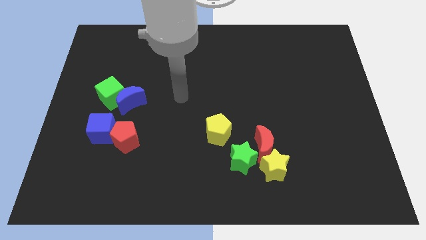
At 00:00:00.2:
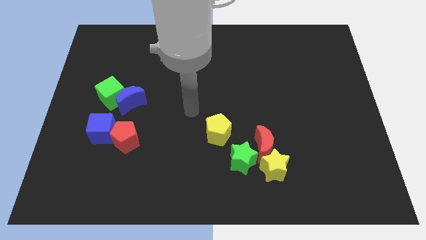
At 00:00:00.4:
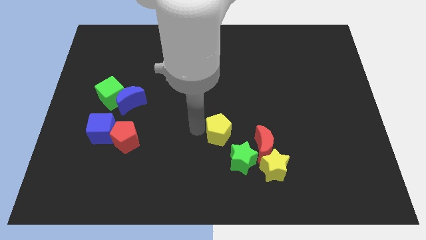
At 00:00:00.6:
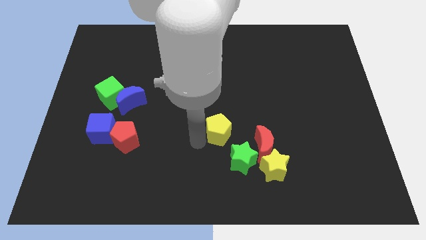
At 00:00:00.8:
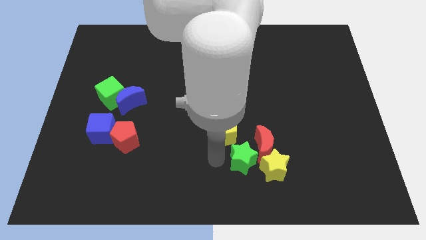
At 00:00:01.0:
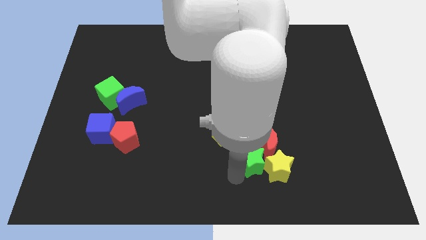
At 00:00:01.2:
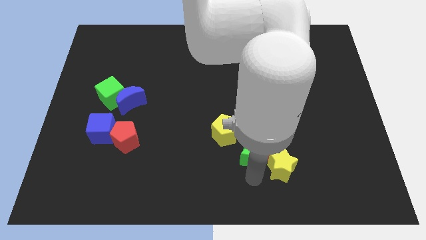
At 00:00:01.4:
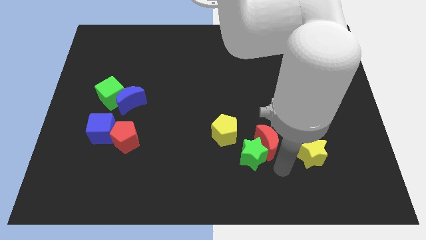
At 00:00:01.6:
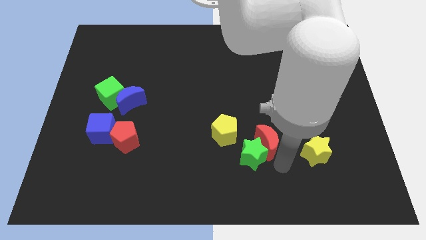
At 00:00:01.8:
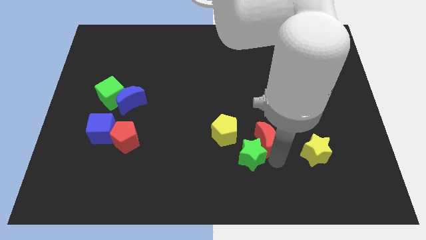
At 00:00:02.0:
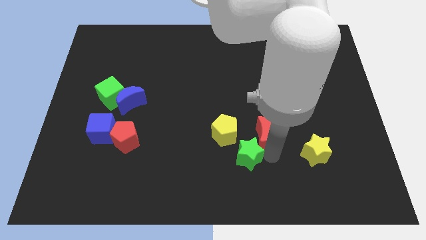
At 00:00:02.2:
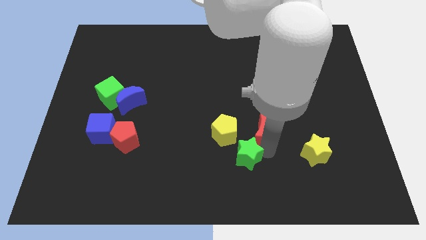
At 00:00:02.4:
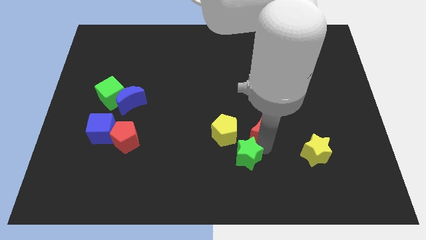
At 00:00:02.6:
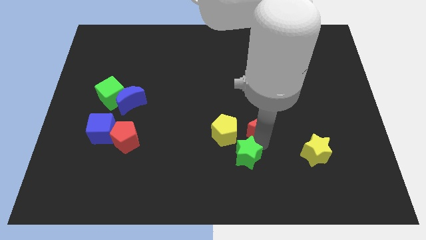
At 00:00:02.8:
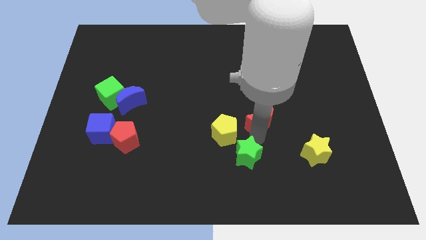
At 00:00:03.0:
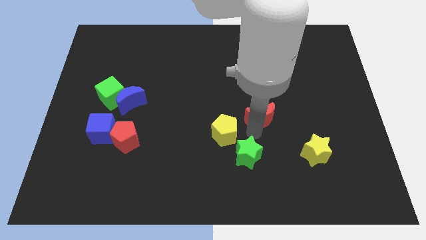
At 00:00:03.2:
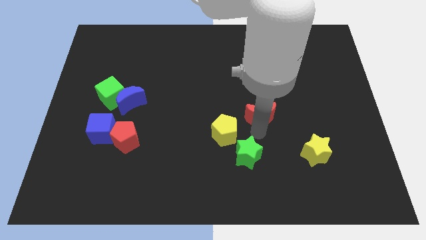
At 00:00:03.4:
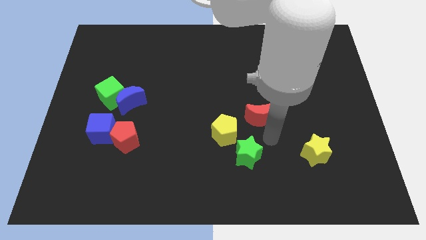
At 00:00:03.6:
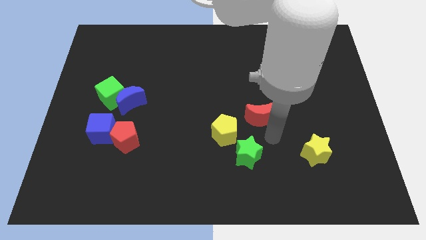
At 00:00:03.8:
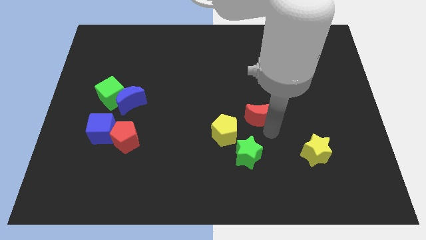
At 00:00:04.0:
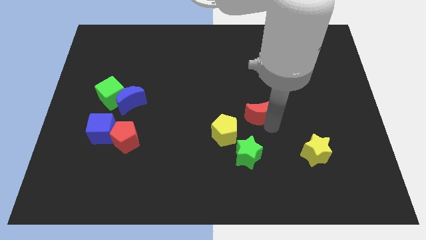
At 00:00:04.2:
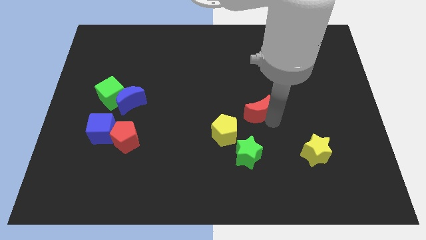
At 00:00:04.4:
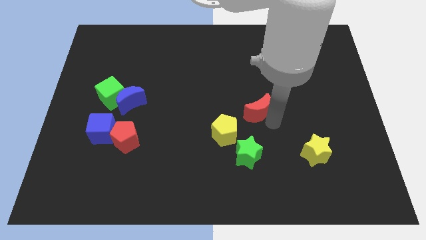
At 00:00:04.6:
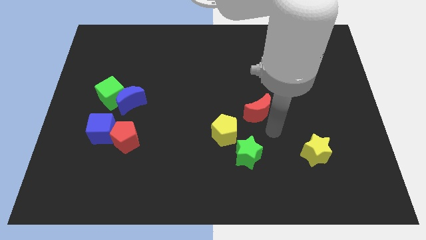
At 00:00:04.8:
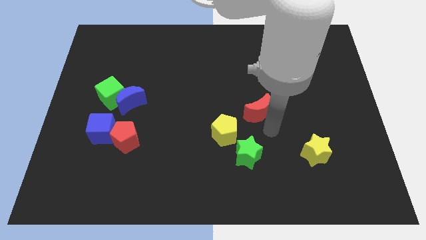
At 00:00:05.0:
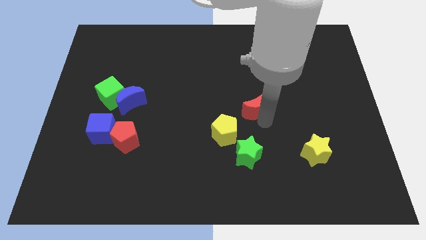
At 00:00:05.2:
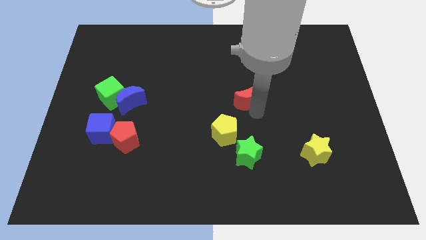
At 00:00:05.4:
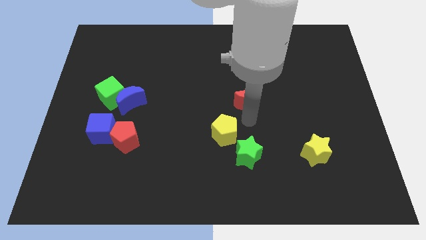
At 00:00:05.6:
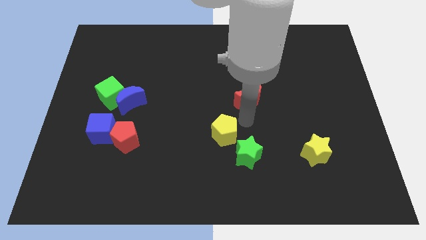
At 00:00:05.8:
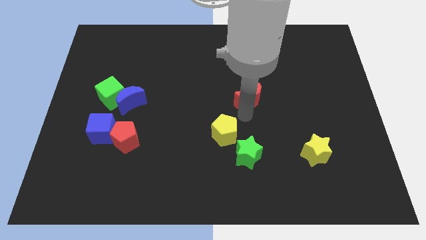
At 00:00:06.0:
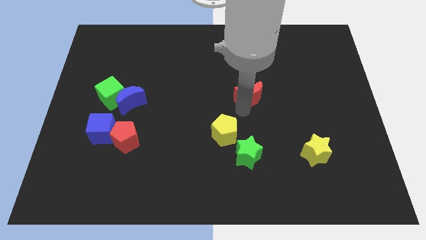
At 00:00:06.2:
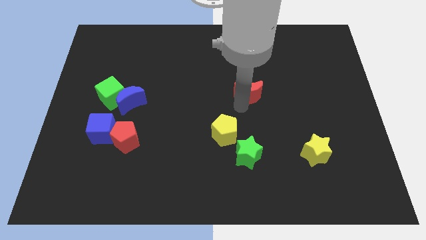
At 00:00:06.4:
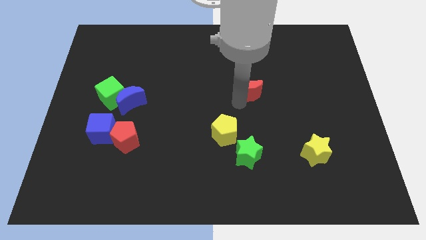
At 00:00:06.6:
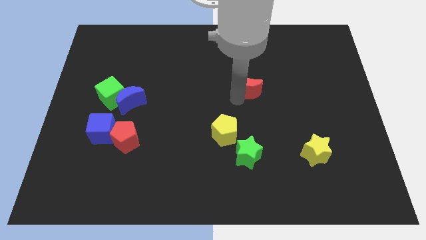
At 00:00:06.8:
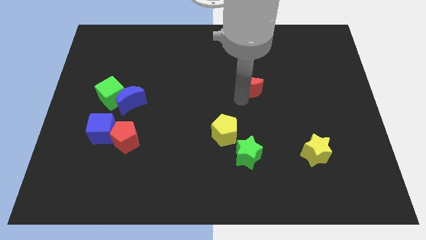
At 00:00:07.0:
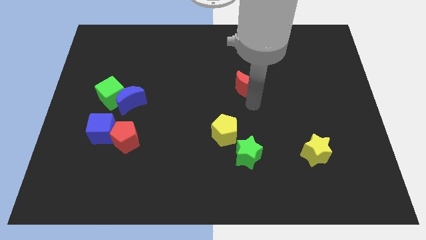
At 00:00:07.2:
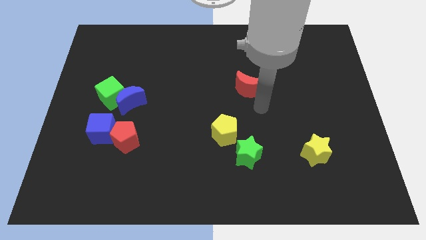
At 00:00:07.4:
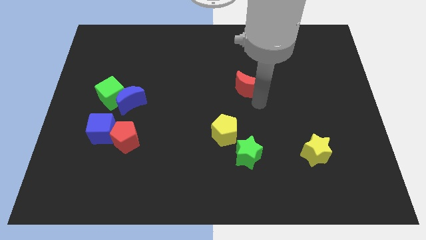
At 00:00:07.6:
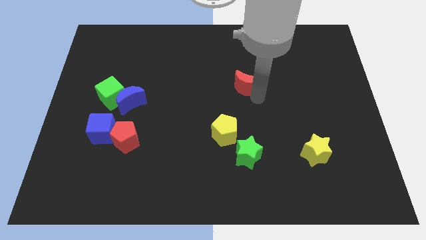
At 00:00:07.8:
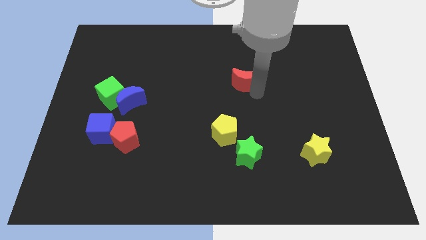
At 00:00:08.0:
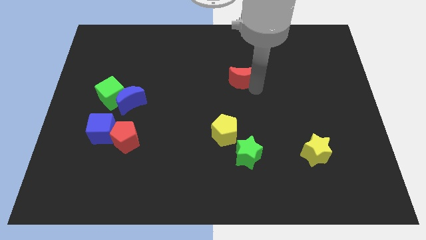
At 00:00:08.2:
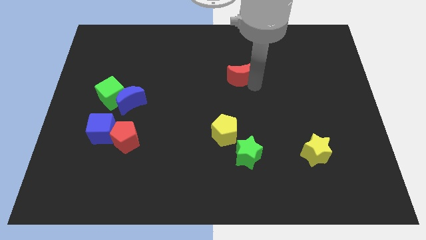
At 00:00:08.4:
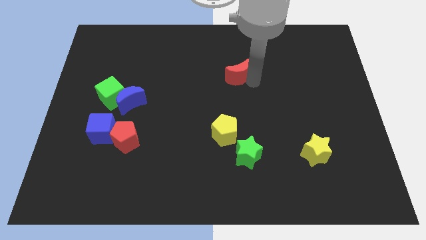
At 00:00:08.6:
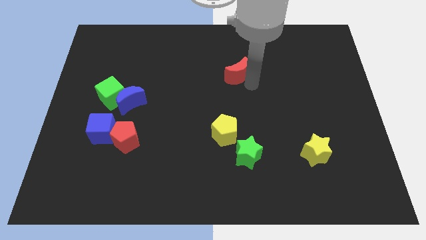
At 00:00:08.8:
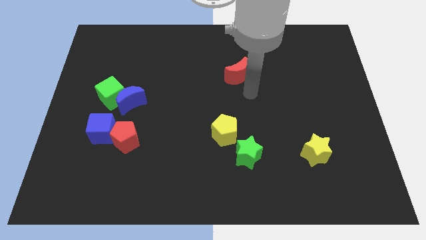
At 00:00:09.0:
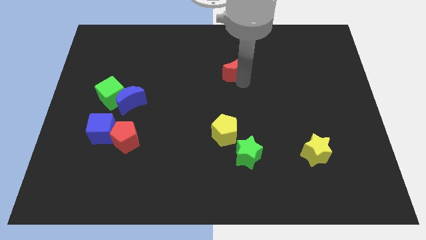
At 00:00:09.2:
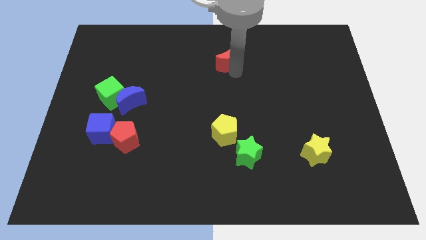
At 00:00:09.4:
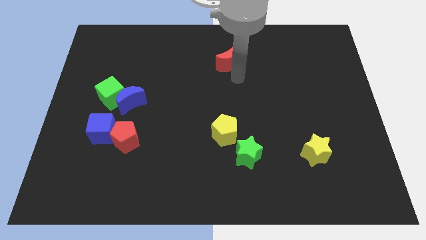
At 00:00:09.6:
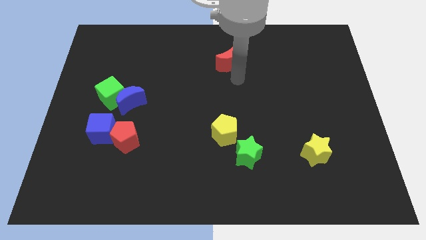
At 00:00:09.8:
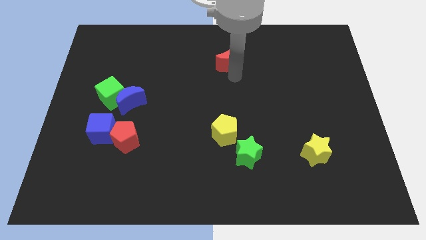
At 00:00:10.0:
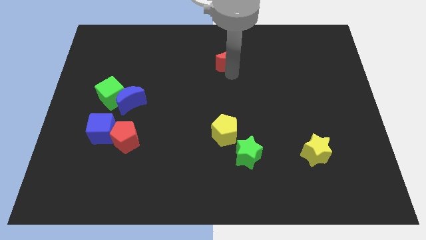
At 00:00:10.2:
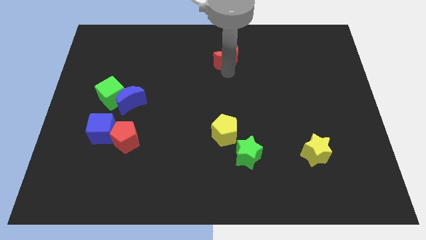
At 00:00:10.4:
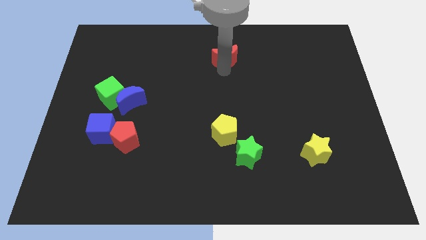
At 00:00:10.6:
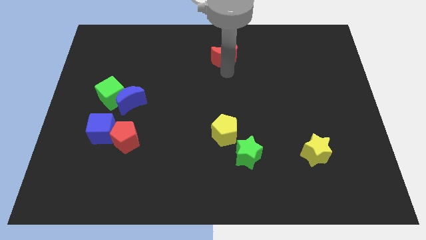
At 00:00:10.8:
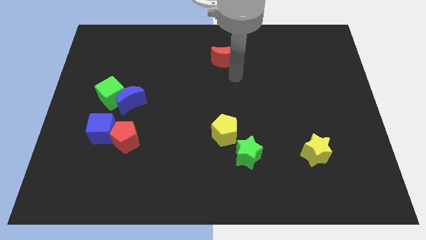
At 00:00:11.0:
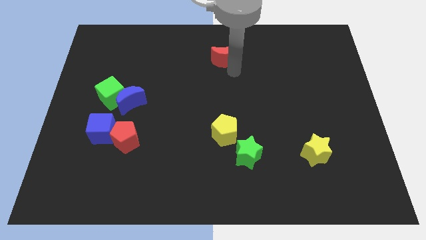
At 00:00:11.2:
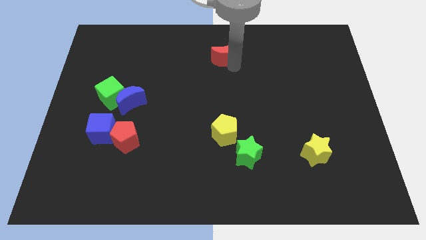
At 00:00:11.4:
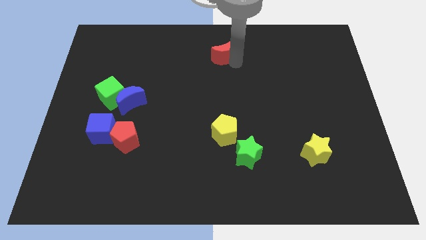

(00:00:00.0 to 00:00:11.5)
push the red moon to the top side

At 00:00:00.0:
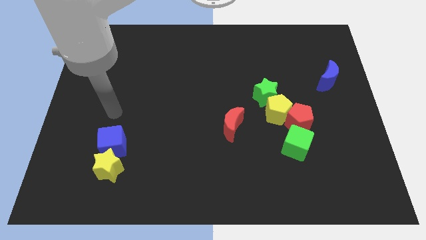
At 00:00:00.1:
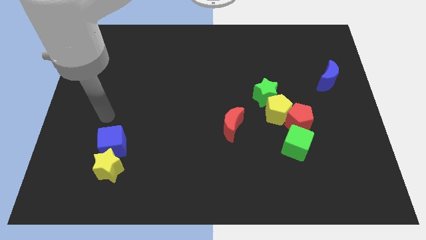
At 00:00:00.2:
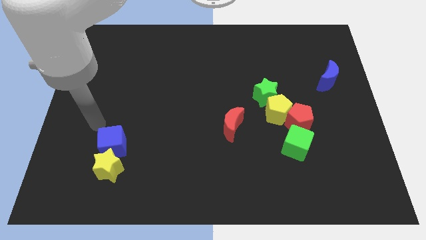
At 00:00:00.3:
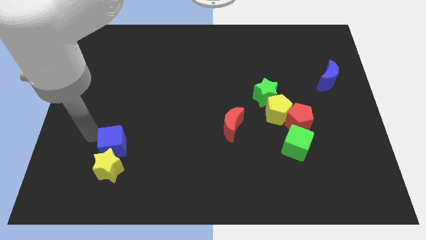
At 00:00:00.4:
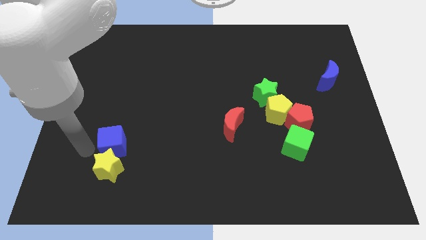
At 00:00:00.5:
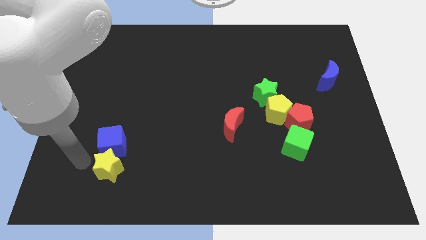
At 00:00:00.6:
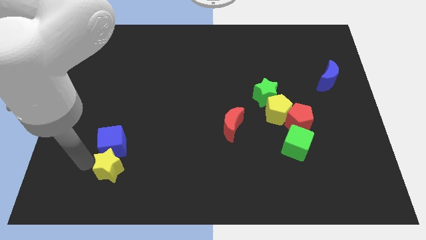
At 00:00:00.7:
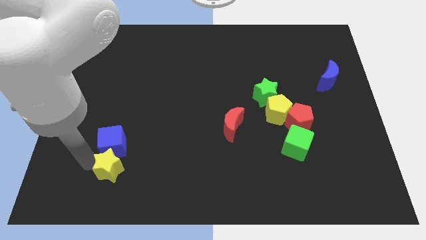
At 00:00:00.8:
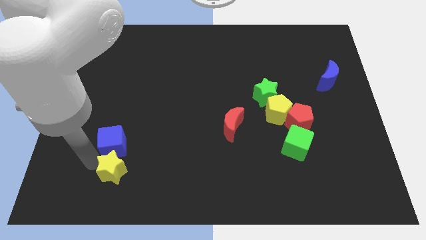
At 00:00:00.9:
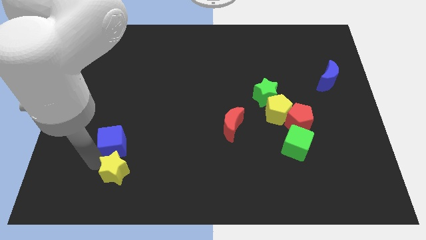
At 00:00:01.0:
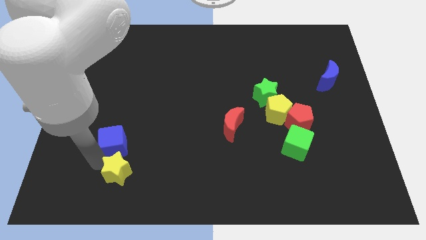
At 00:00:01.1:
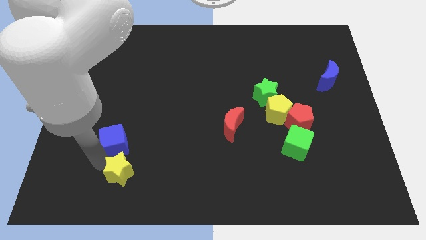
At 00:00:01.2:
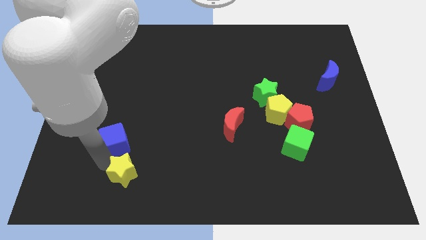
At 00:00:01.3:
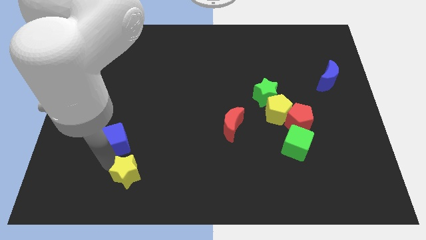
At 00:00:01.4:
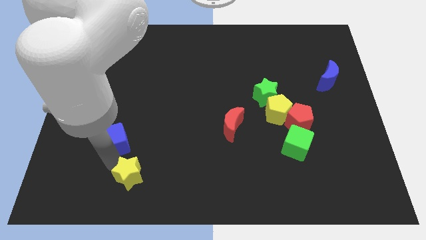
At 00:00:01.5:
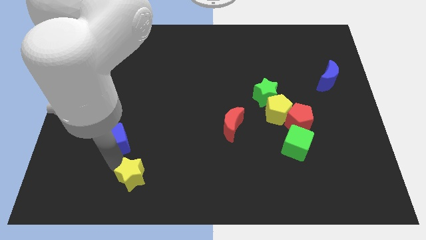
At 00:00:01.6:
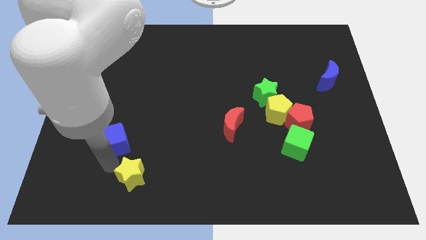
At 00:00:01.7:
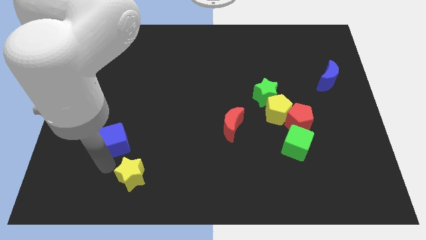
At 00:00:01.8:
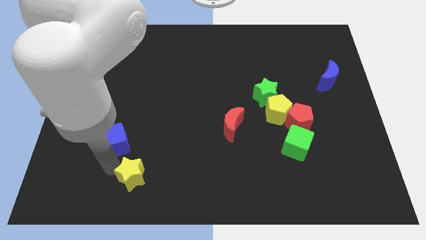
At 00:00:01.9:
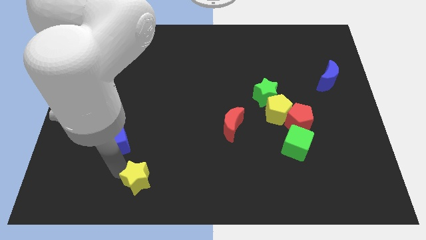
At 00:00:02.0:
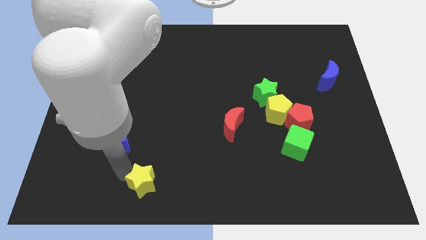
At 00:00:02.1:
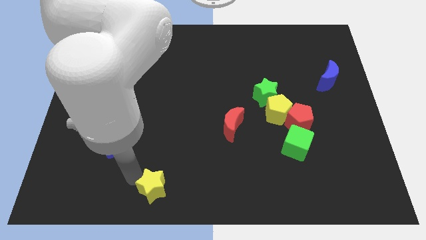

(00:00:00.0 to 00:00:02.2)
put the yellow star to the bottom side
